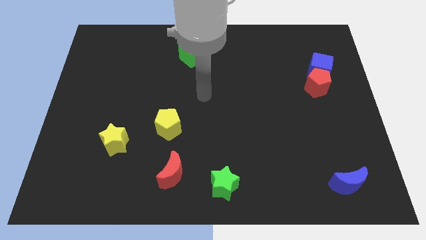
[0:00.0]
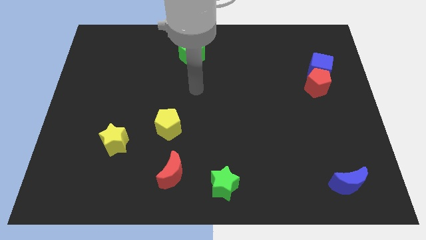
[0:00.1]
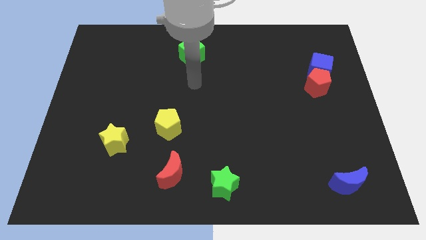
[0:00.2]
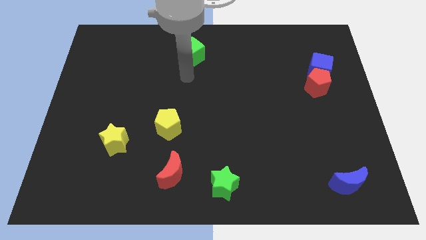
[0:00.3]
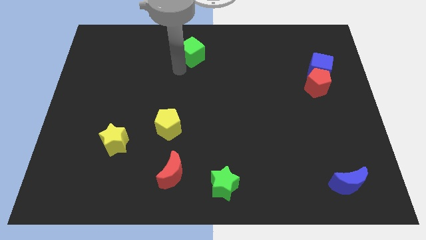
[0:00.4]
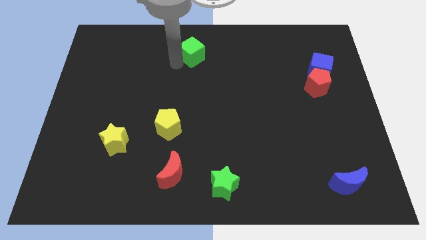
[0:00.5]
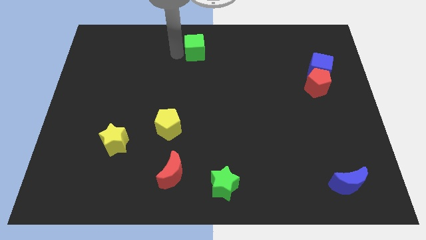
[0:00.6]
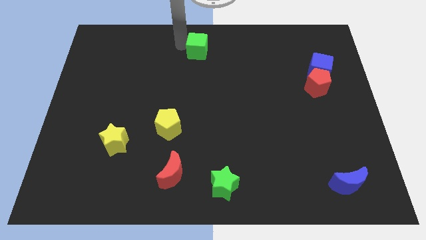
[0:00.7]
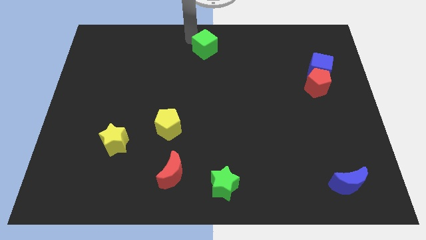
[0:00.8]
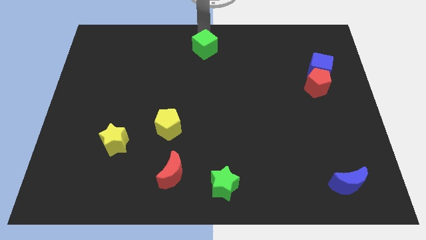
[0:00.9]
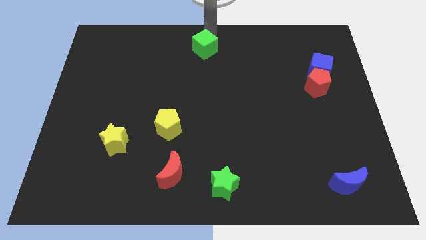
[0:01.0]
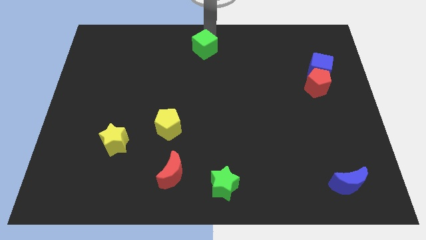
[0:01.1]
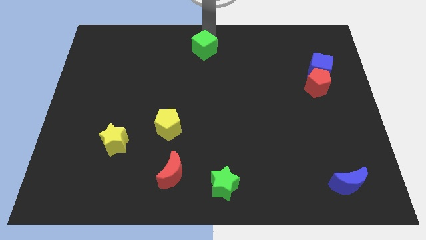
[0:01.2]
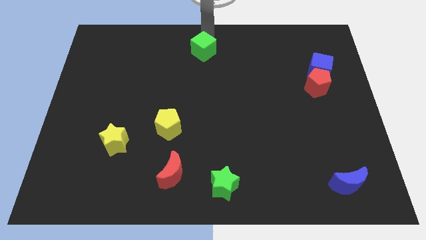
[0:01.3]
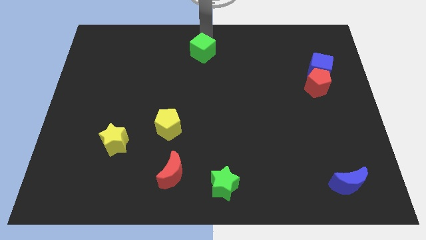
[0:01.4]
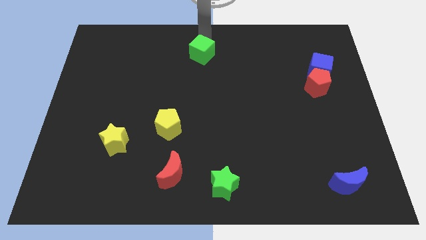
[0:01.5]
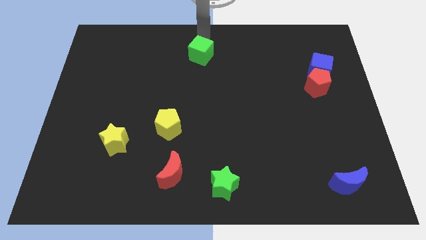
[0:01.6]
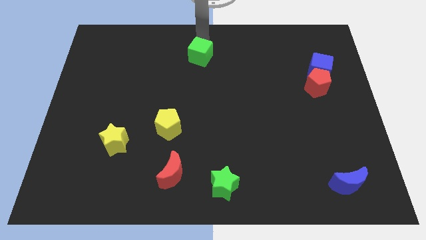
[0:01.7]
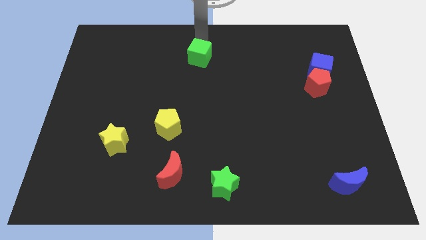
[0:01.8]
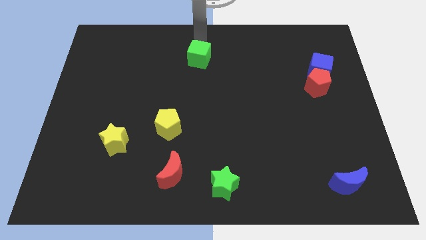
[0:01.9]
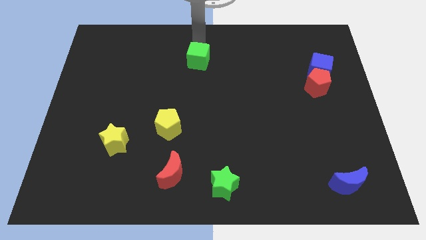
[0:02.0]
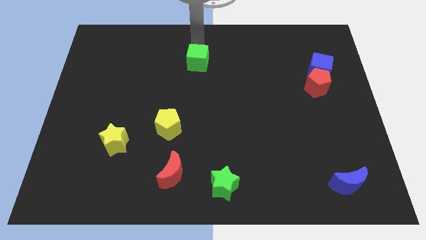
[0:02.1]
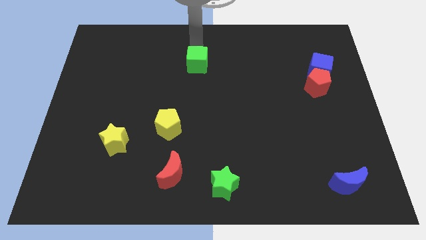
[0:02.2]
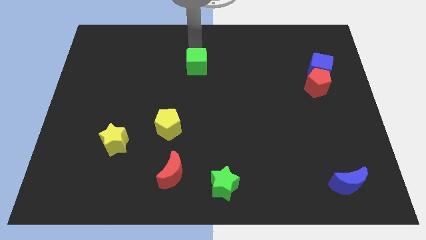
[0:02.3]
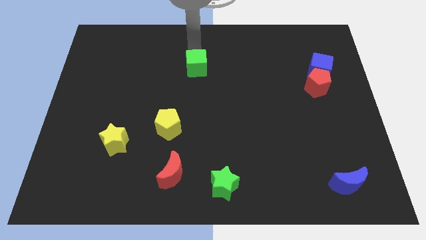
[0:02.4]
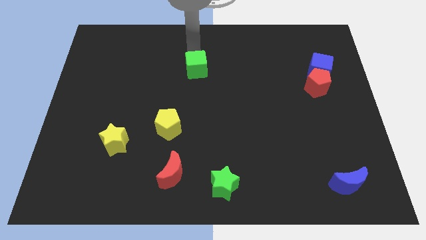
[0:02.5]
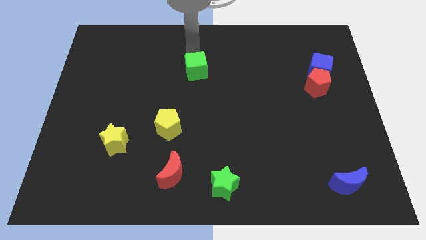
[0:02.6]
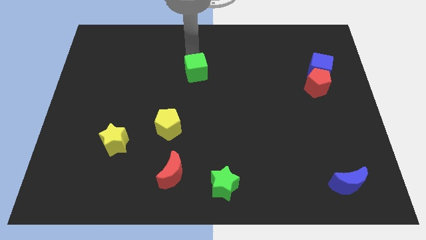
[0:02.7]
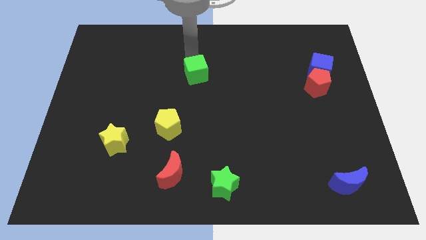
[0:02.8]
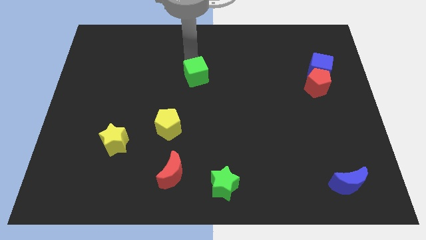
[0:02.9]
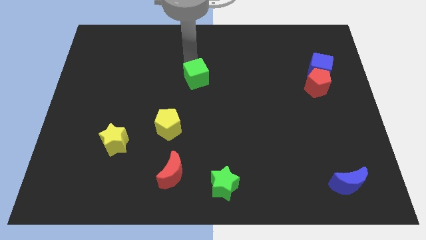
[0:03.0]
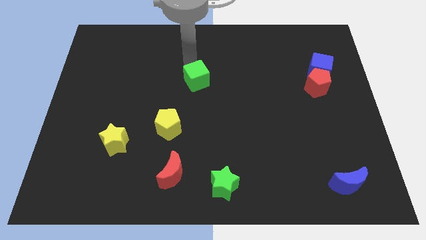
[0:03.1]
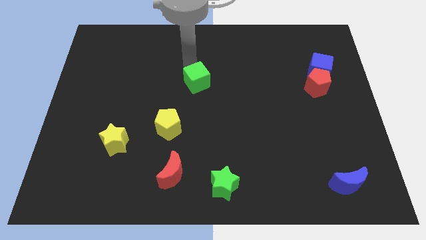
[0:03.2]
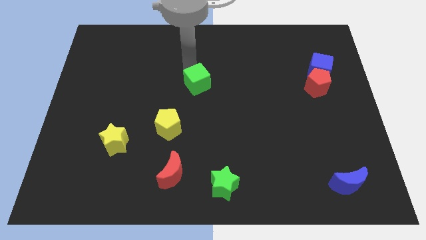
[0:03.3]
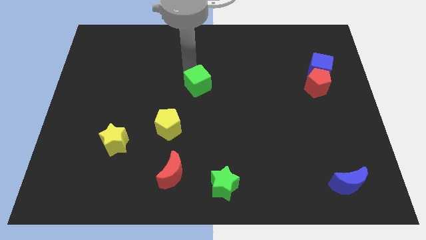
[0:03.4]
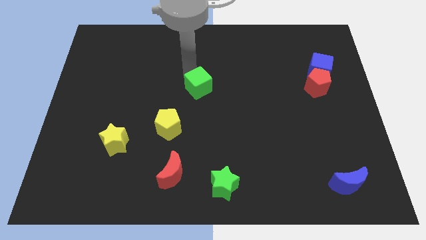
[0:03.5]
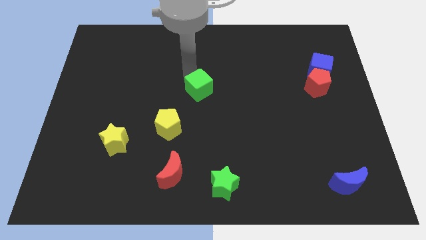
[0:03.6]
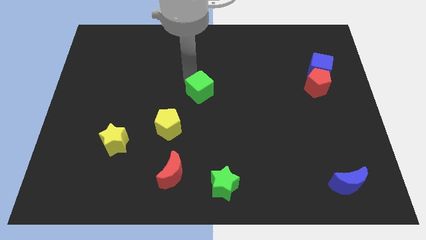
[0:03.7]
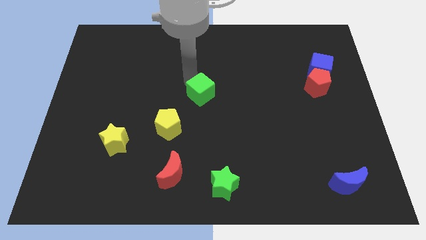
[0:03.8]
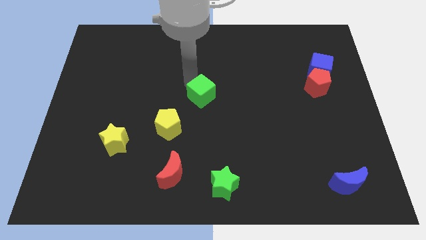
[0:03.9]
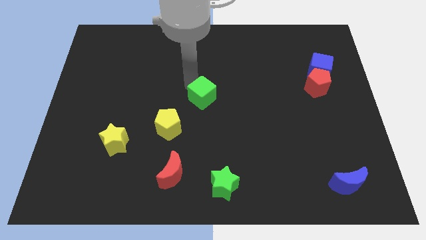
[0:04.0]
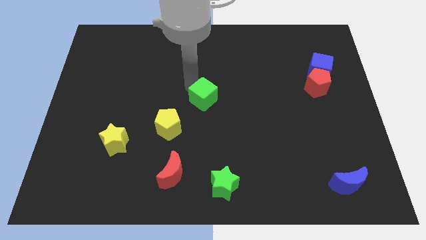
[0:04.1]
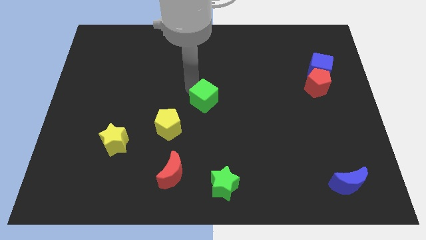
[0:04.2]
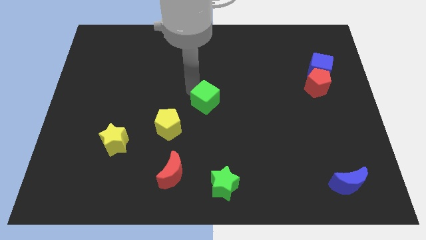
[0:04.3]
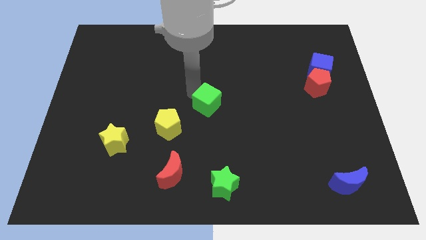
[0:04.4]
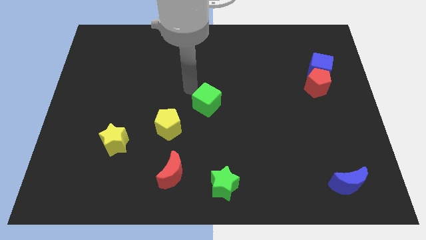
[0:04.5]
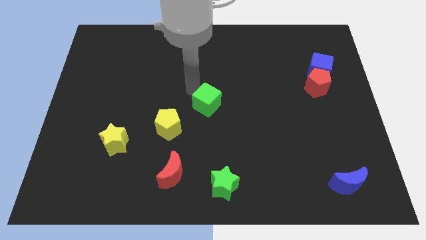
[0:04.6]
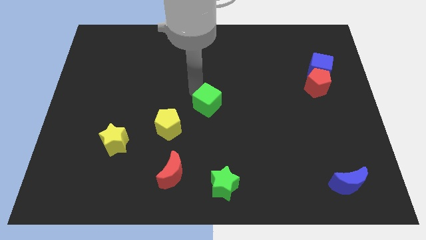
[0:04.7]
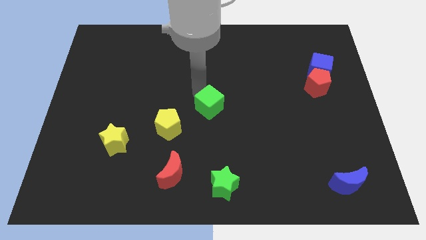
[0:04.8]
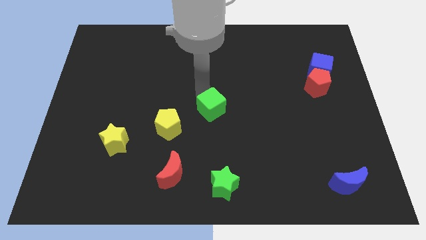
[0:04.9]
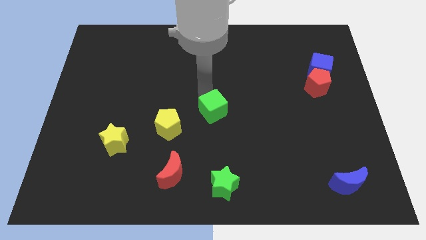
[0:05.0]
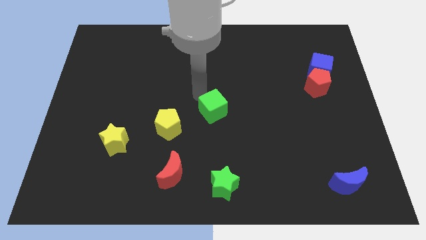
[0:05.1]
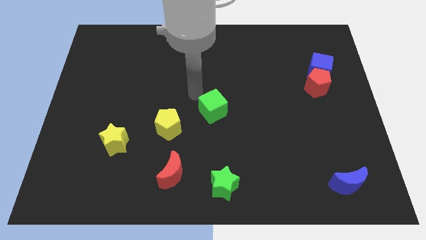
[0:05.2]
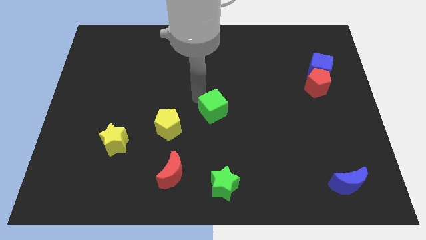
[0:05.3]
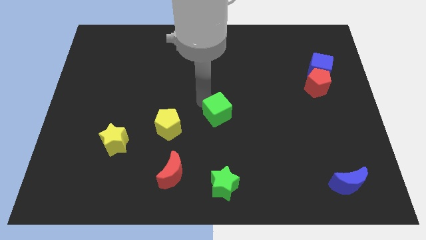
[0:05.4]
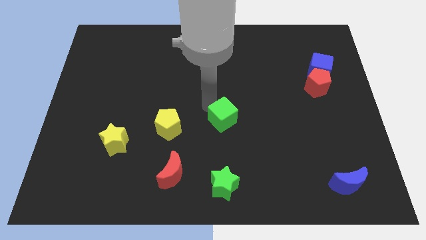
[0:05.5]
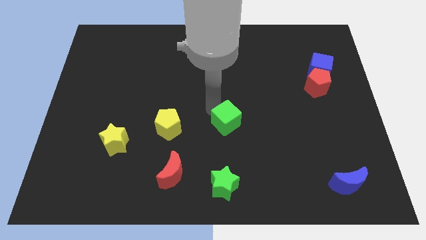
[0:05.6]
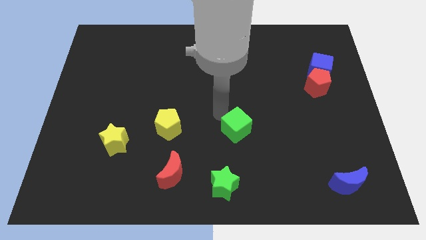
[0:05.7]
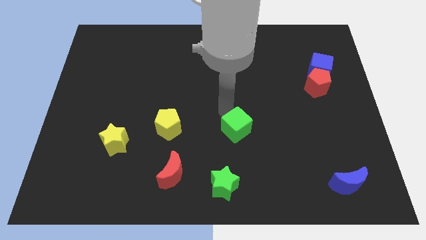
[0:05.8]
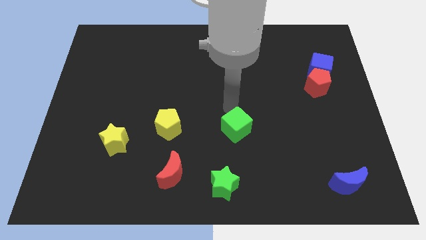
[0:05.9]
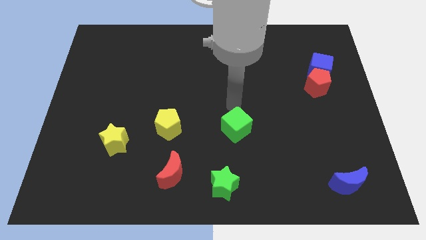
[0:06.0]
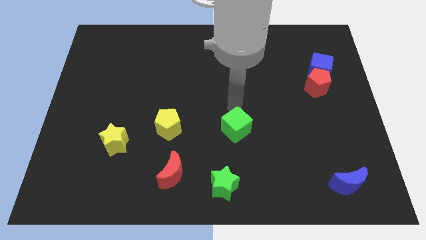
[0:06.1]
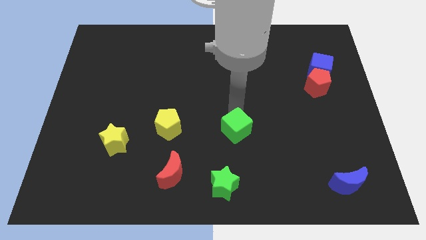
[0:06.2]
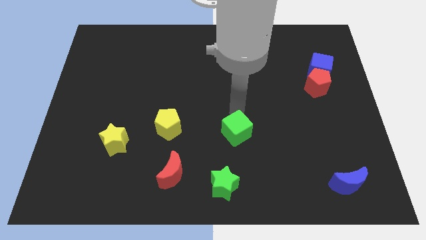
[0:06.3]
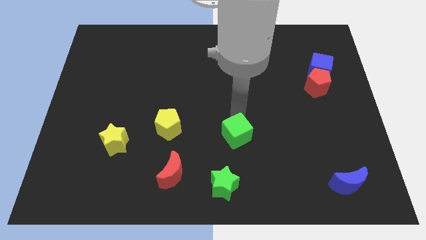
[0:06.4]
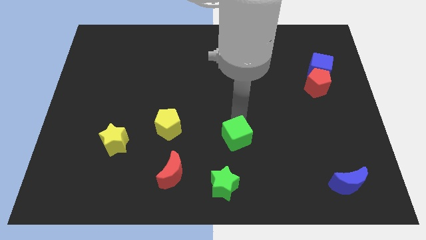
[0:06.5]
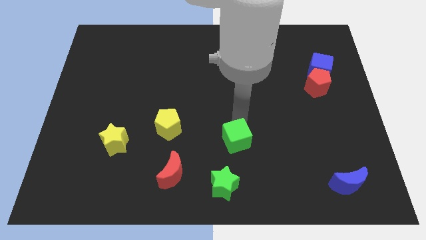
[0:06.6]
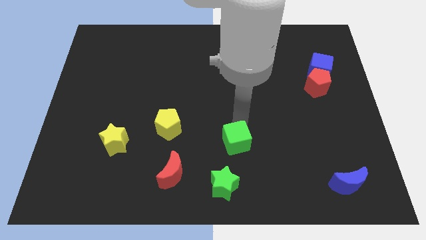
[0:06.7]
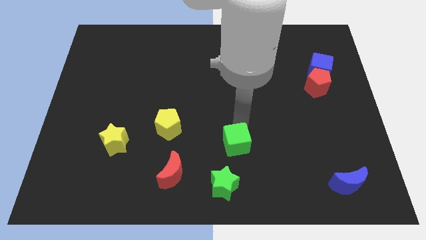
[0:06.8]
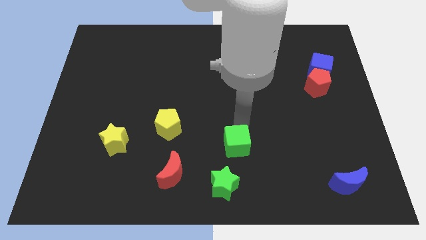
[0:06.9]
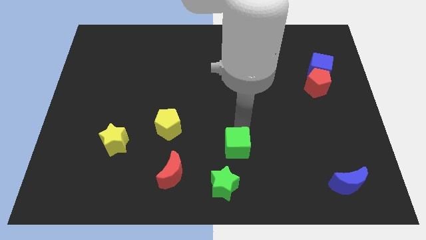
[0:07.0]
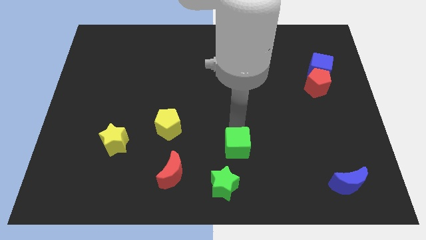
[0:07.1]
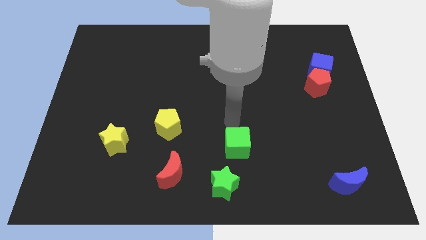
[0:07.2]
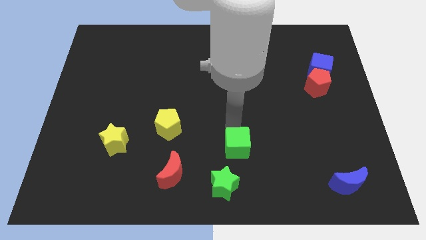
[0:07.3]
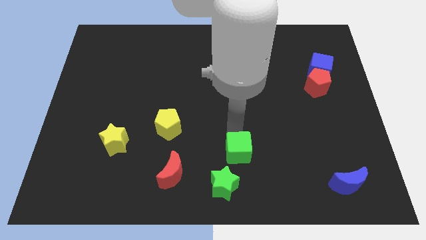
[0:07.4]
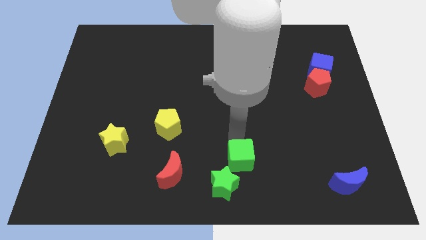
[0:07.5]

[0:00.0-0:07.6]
slide the green cube right of the red moon
